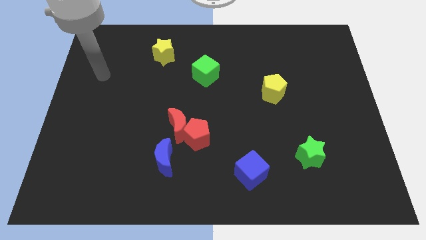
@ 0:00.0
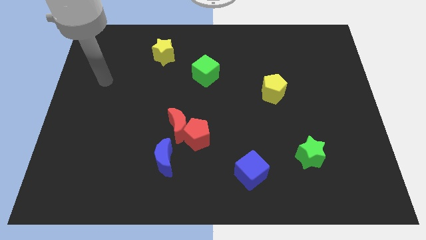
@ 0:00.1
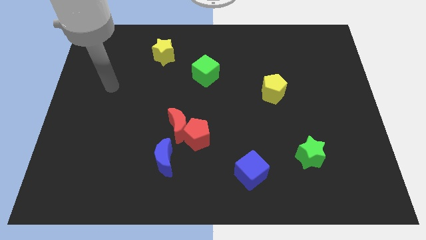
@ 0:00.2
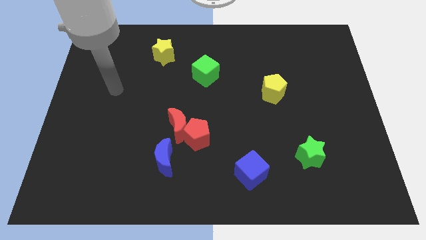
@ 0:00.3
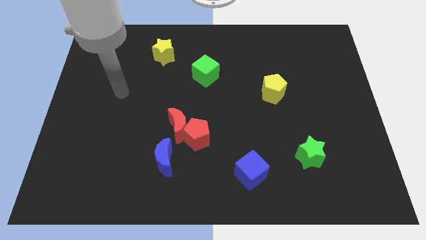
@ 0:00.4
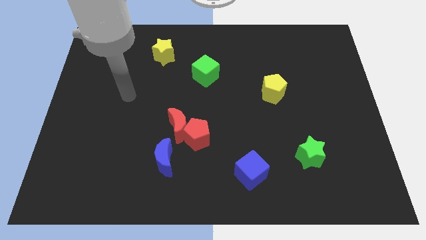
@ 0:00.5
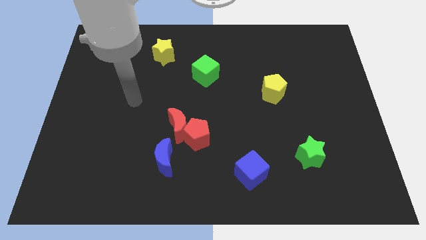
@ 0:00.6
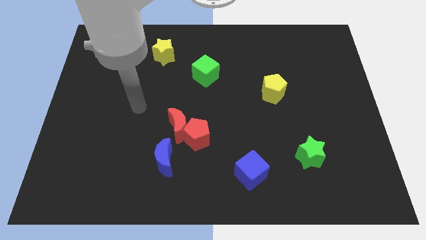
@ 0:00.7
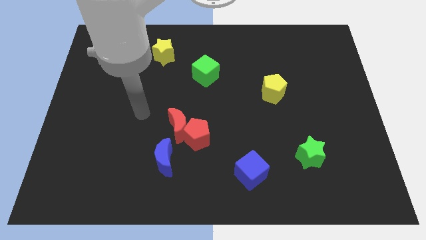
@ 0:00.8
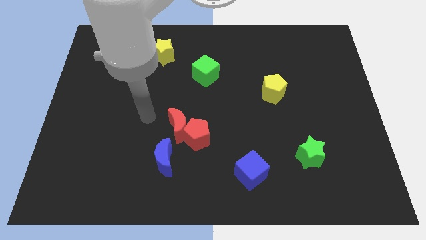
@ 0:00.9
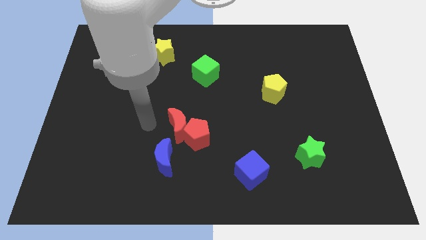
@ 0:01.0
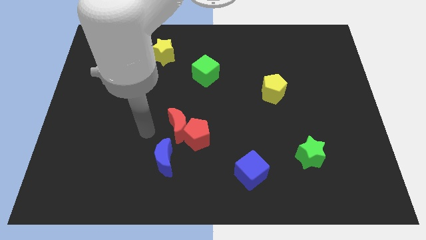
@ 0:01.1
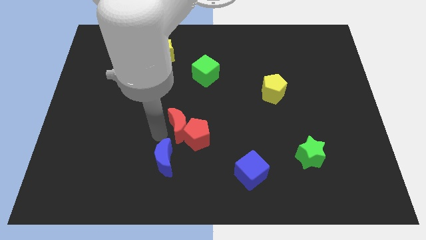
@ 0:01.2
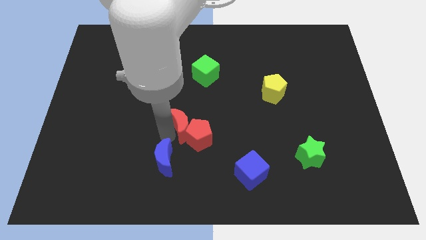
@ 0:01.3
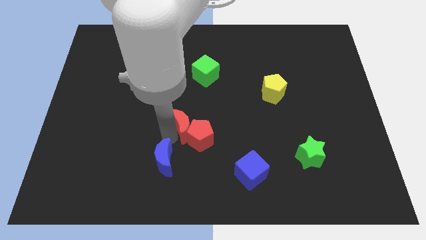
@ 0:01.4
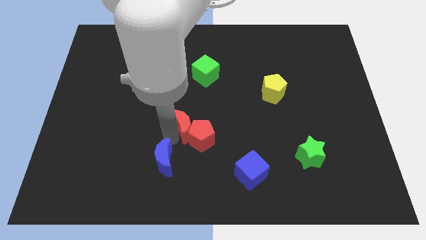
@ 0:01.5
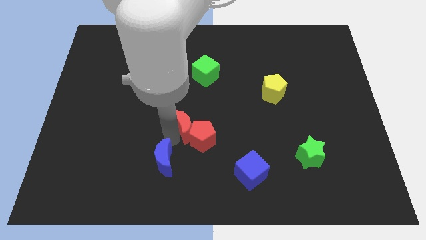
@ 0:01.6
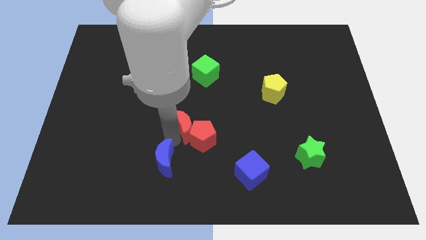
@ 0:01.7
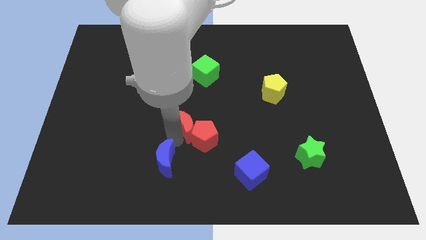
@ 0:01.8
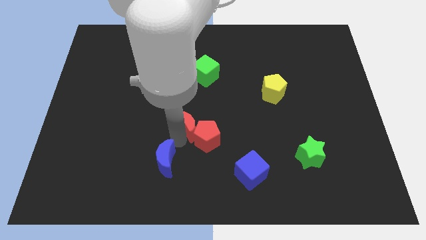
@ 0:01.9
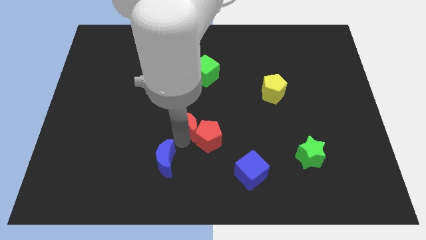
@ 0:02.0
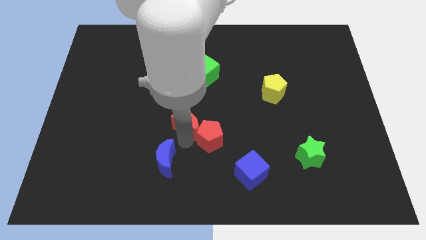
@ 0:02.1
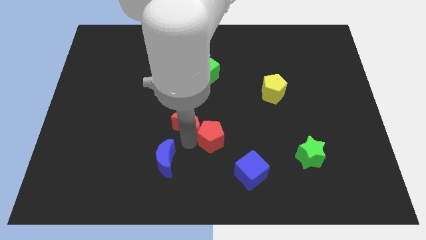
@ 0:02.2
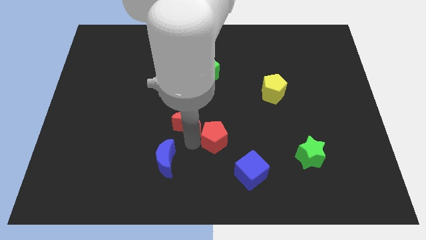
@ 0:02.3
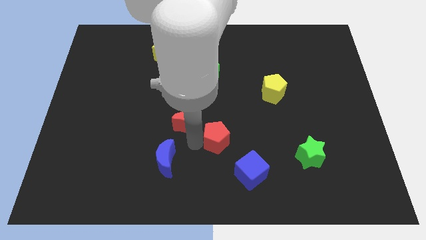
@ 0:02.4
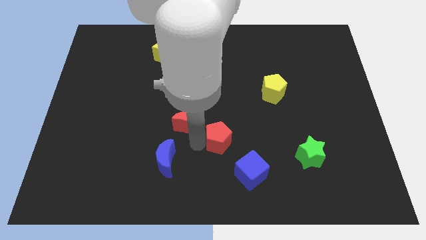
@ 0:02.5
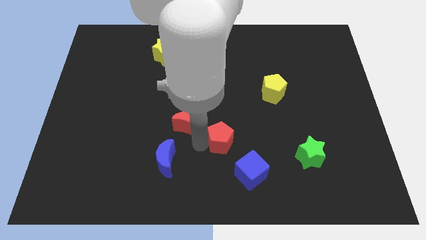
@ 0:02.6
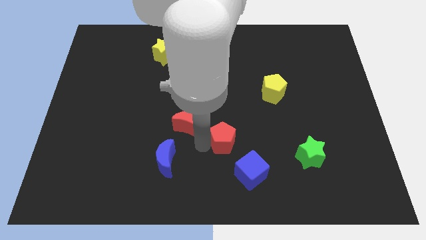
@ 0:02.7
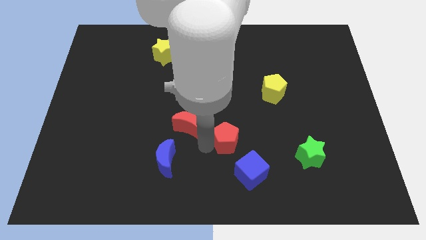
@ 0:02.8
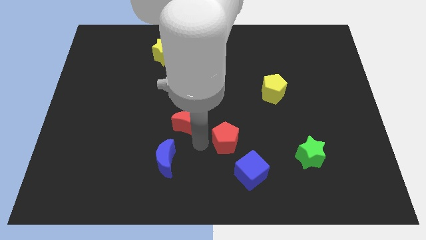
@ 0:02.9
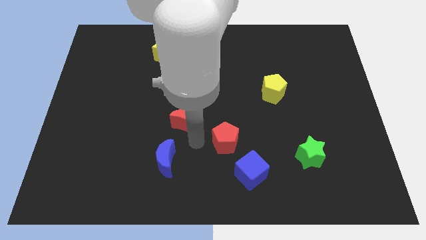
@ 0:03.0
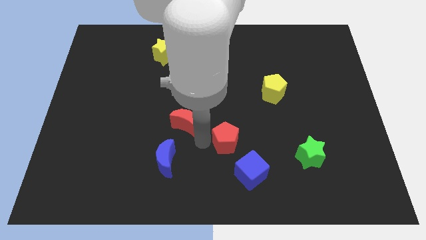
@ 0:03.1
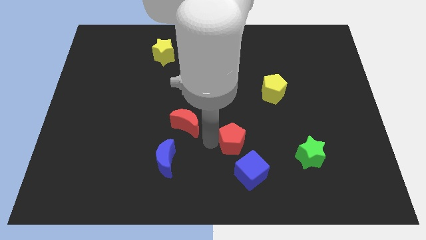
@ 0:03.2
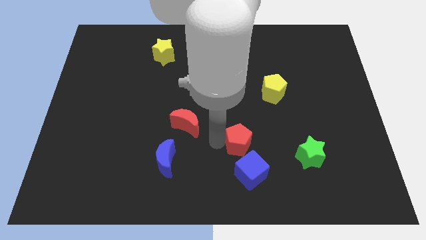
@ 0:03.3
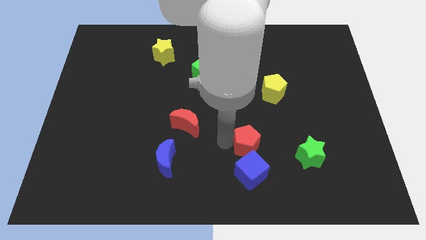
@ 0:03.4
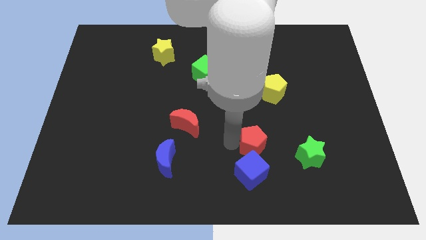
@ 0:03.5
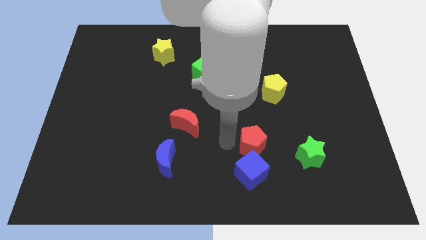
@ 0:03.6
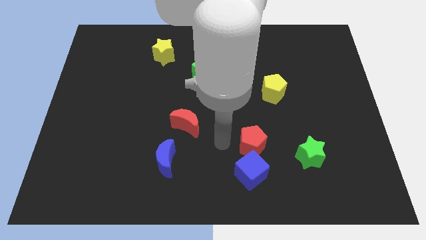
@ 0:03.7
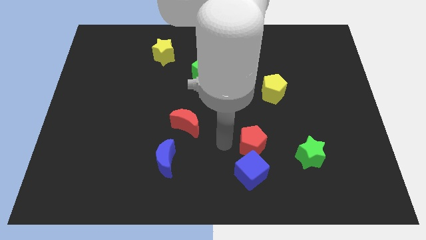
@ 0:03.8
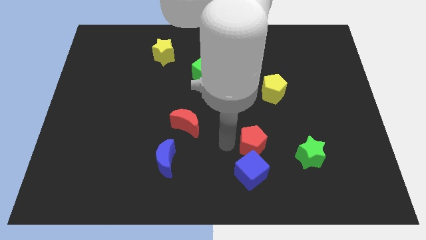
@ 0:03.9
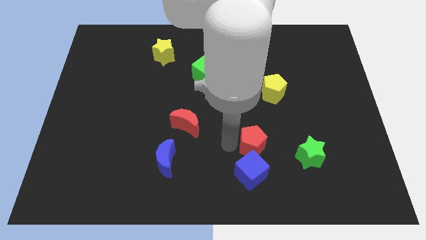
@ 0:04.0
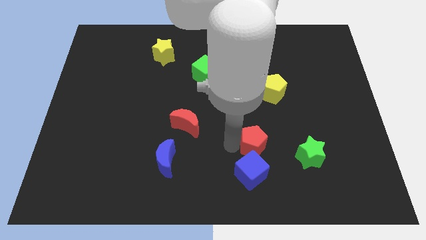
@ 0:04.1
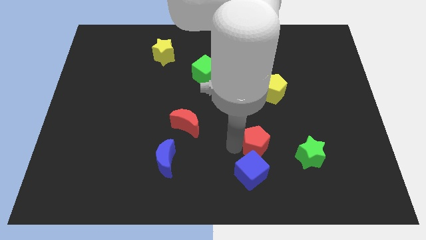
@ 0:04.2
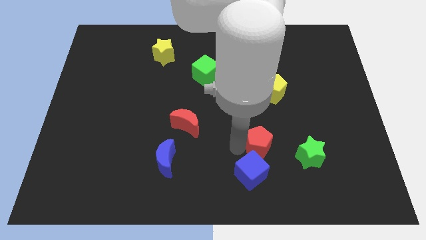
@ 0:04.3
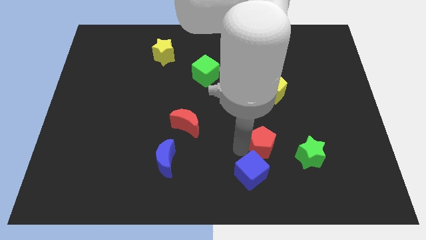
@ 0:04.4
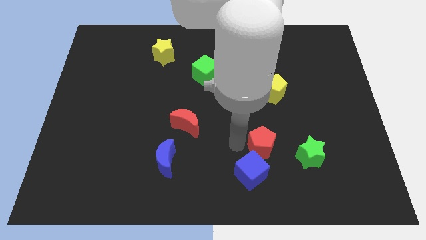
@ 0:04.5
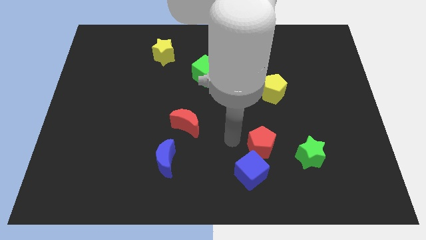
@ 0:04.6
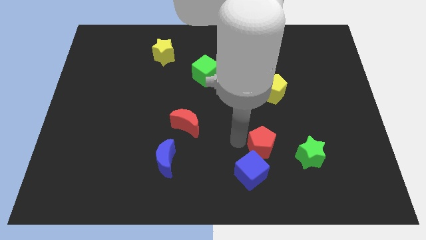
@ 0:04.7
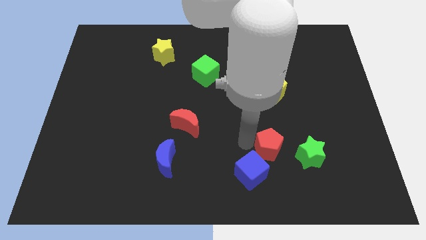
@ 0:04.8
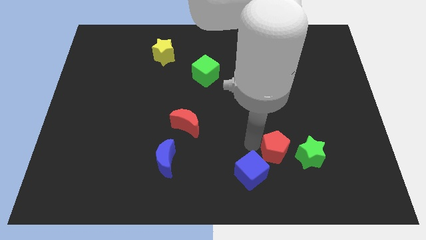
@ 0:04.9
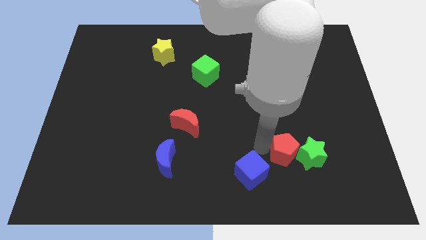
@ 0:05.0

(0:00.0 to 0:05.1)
push the red pentagon next to the green star

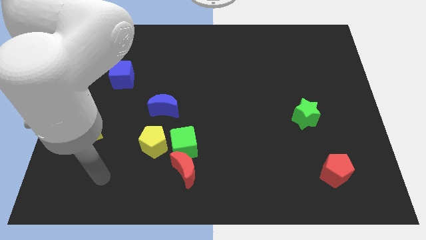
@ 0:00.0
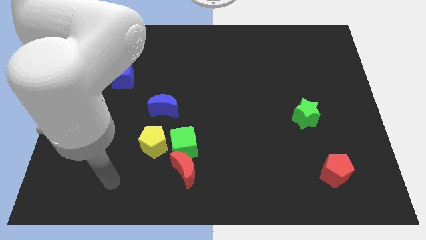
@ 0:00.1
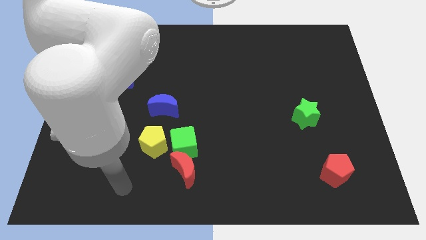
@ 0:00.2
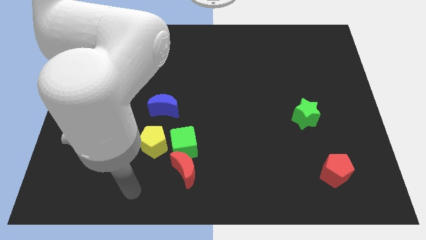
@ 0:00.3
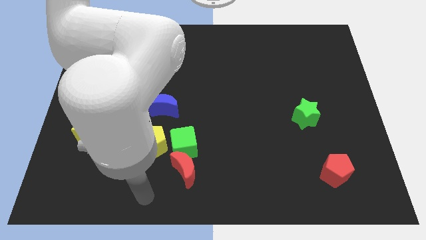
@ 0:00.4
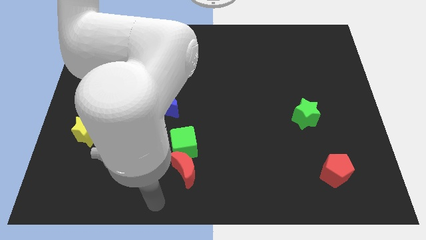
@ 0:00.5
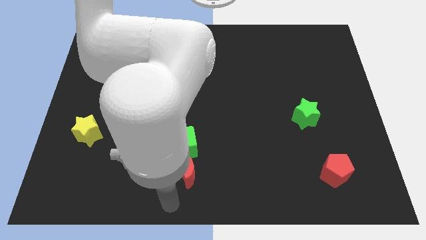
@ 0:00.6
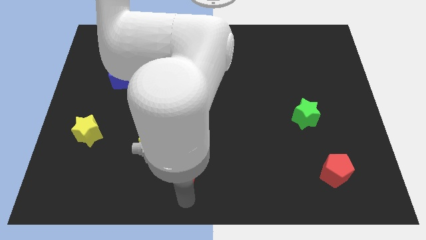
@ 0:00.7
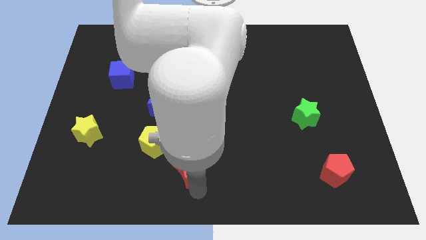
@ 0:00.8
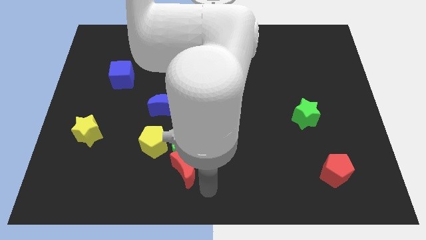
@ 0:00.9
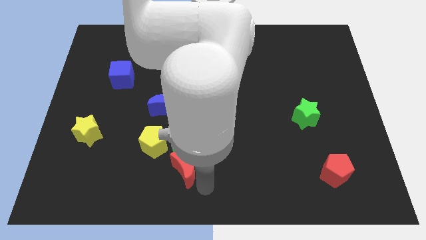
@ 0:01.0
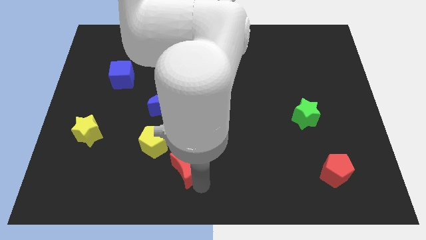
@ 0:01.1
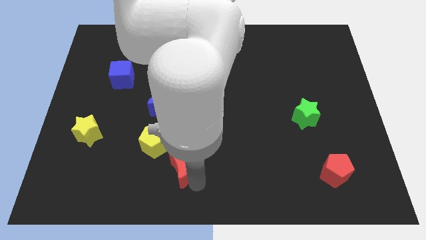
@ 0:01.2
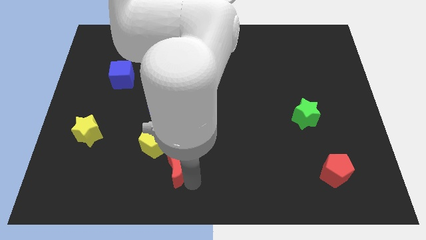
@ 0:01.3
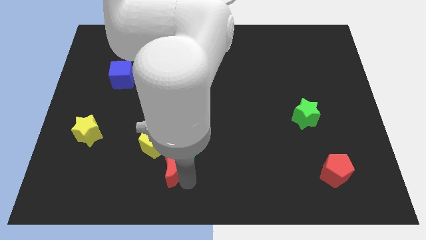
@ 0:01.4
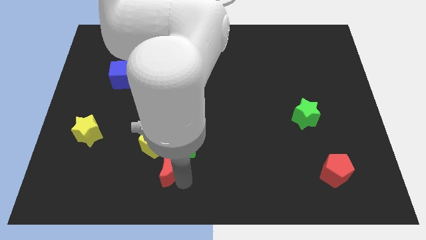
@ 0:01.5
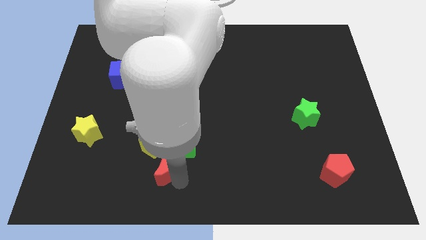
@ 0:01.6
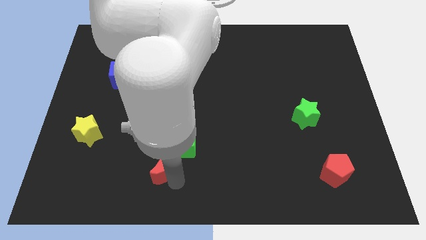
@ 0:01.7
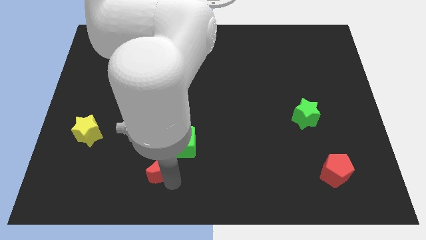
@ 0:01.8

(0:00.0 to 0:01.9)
put the red moon close to the yellow pentagon

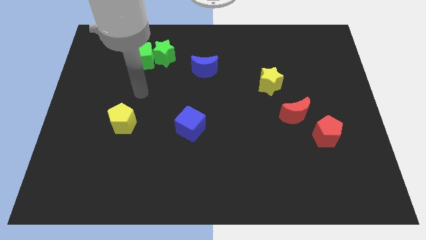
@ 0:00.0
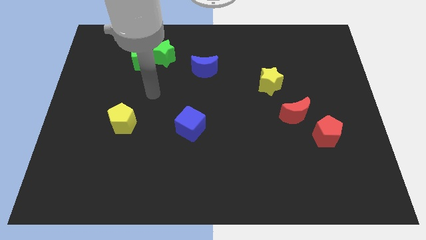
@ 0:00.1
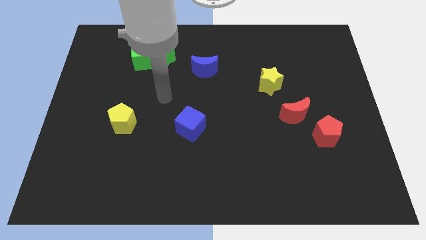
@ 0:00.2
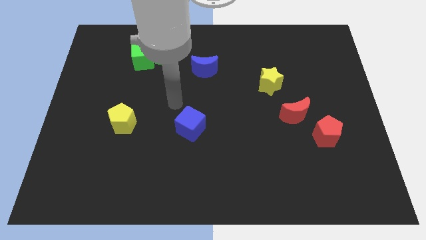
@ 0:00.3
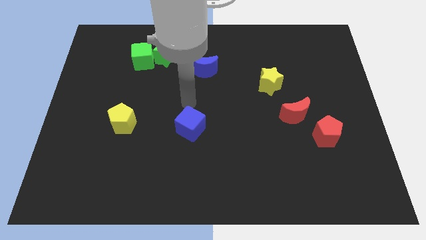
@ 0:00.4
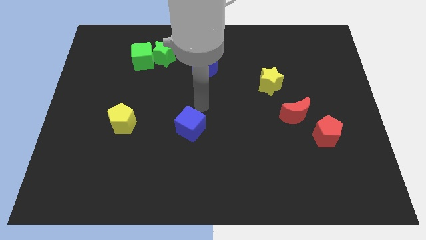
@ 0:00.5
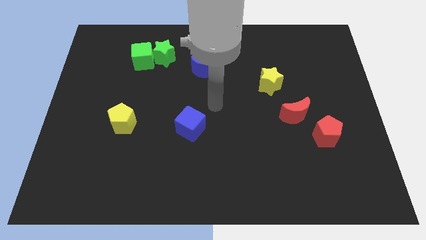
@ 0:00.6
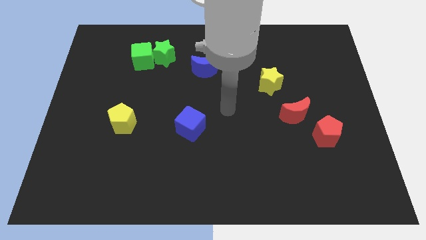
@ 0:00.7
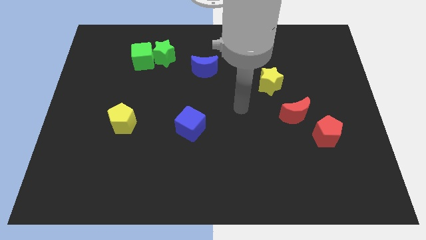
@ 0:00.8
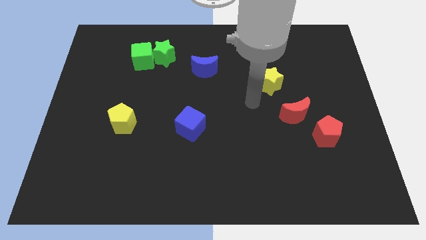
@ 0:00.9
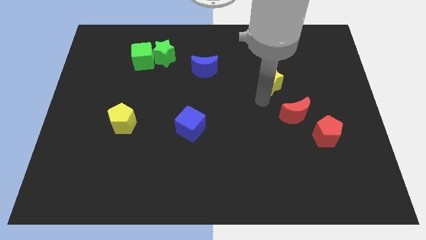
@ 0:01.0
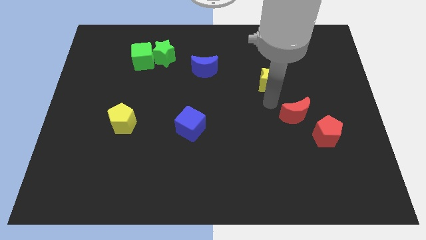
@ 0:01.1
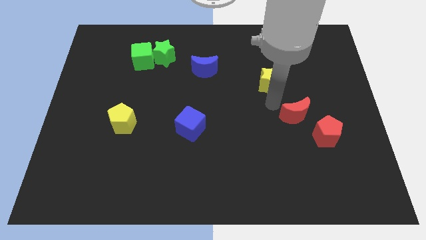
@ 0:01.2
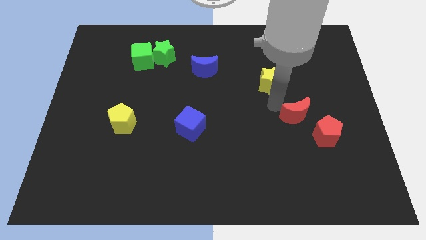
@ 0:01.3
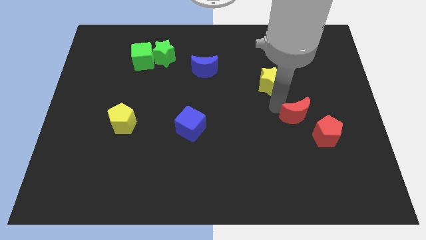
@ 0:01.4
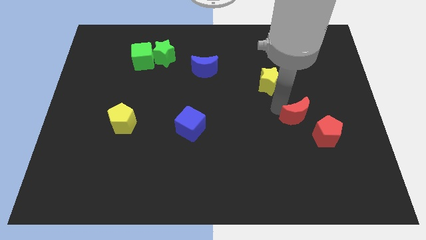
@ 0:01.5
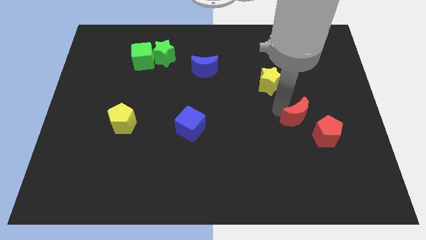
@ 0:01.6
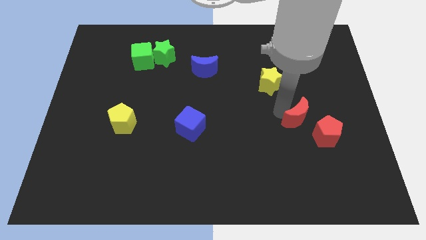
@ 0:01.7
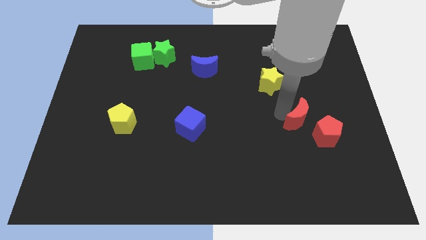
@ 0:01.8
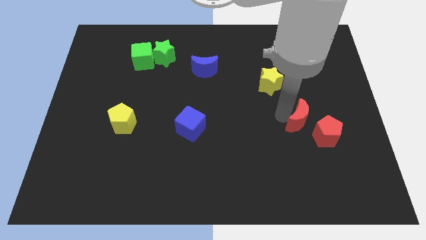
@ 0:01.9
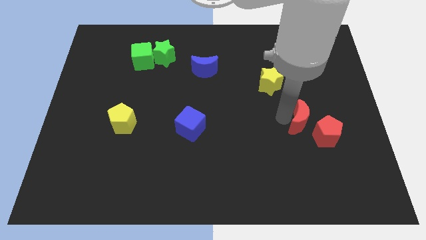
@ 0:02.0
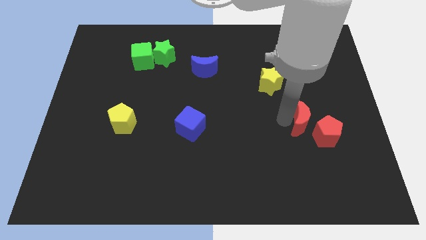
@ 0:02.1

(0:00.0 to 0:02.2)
put the red moon to the red pentagon
